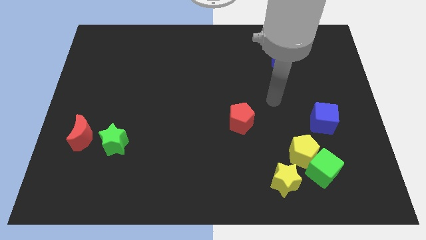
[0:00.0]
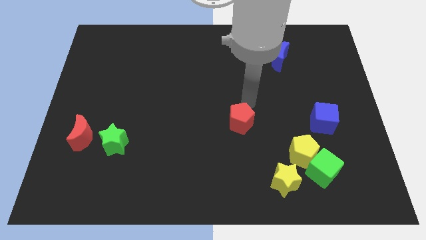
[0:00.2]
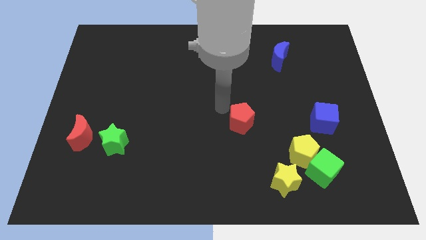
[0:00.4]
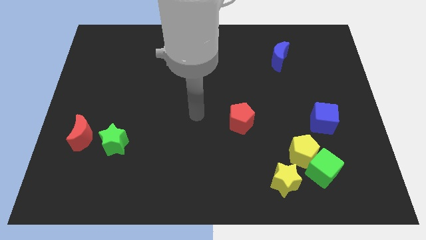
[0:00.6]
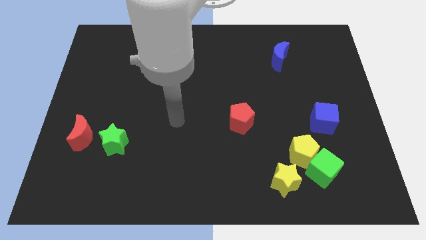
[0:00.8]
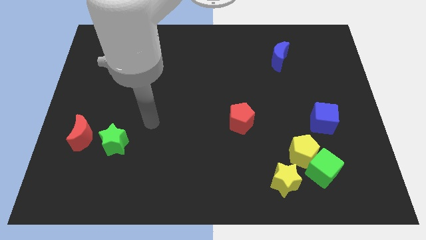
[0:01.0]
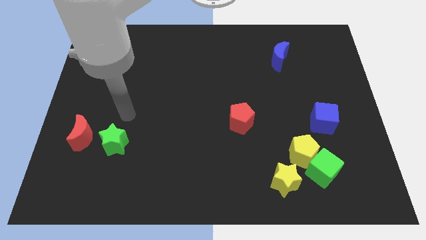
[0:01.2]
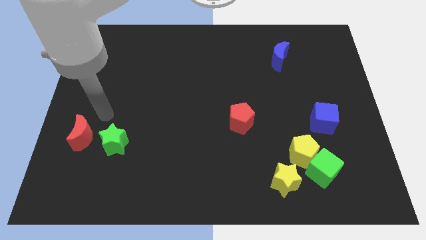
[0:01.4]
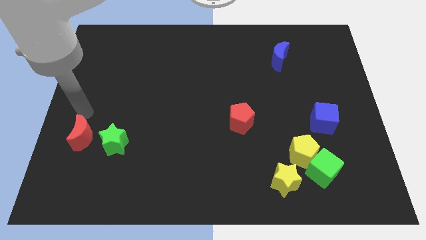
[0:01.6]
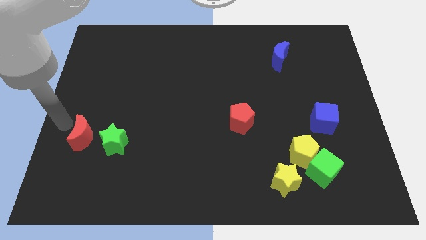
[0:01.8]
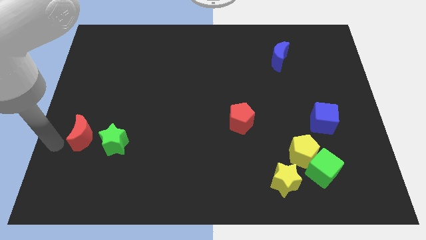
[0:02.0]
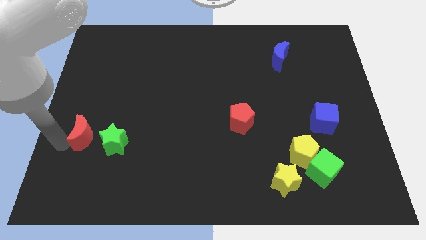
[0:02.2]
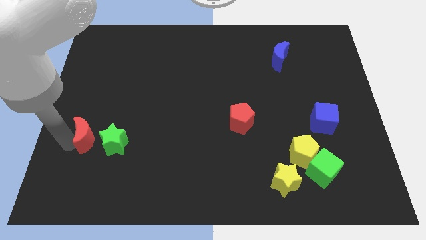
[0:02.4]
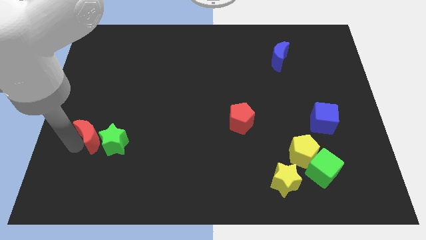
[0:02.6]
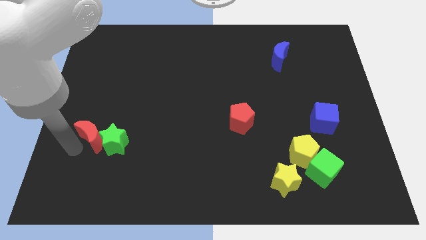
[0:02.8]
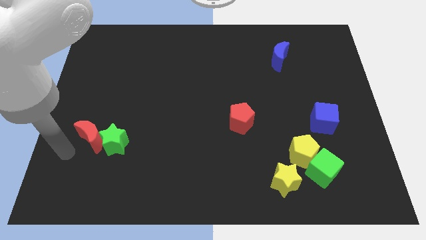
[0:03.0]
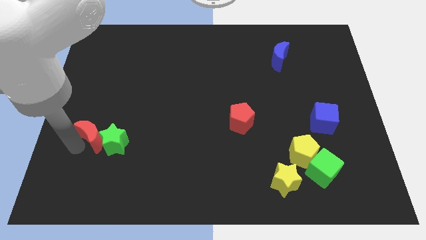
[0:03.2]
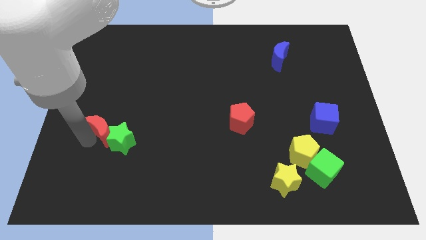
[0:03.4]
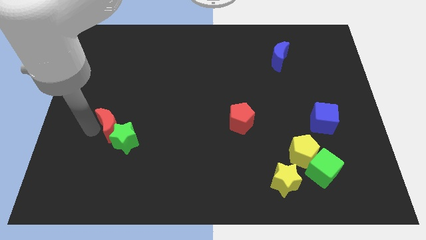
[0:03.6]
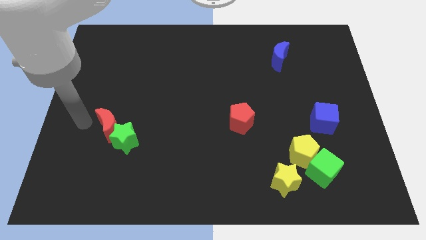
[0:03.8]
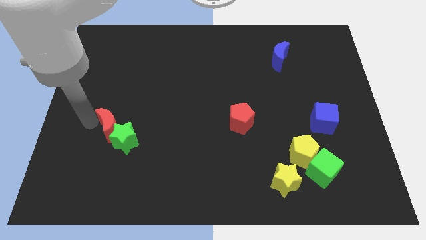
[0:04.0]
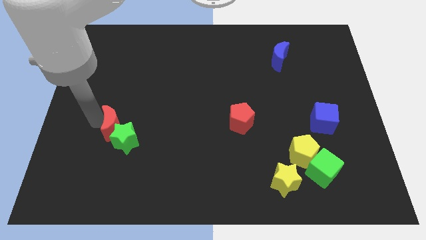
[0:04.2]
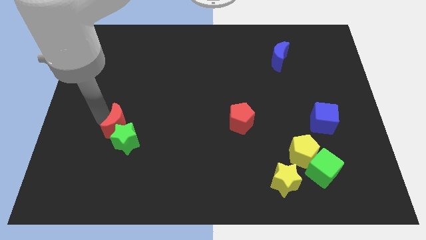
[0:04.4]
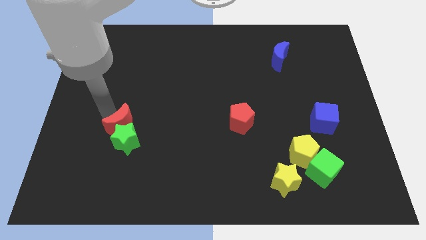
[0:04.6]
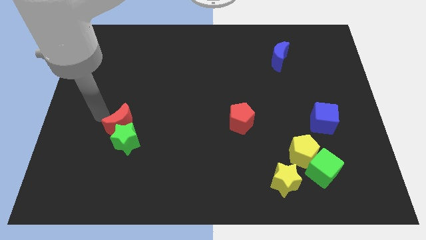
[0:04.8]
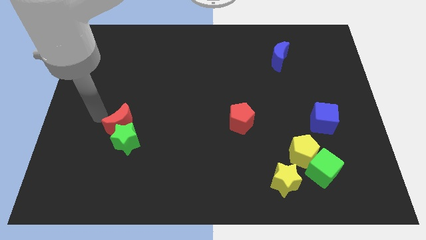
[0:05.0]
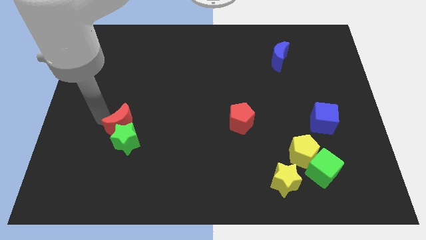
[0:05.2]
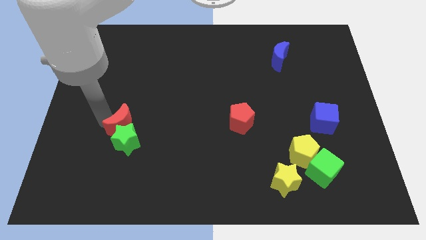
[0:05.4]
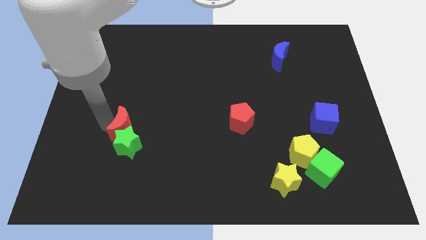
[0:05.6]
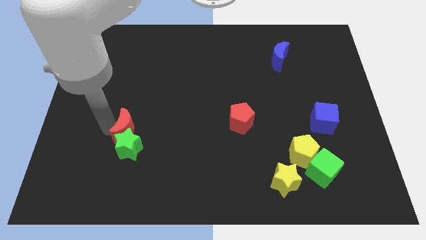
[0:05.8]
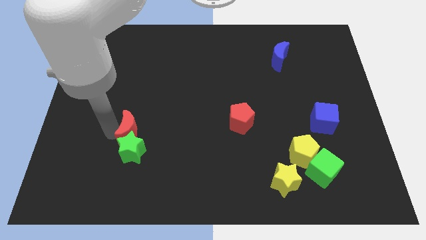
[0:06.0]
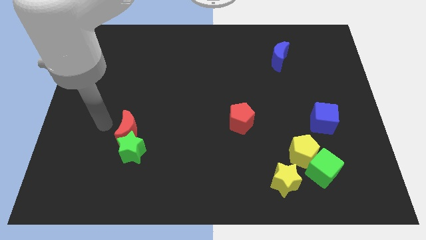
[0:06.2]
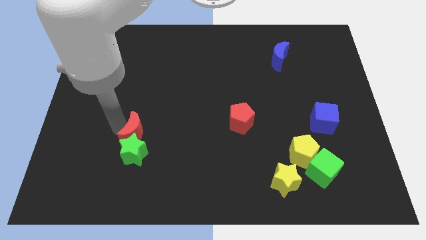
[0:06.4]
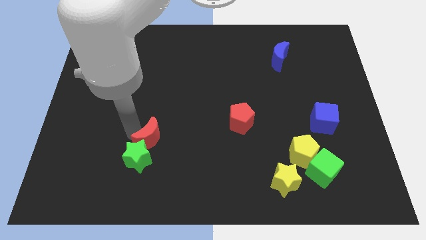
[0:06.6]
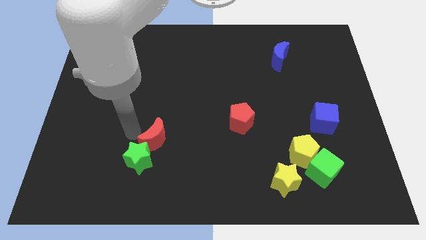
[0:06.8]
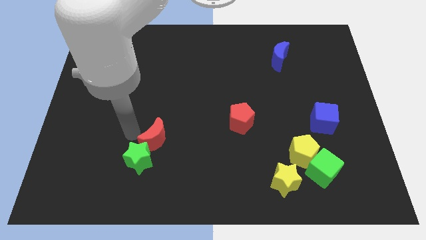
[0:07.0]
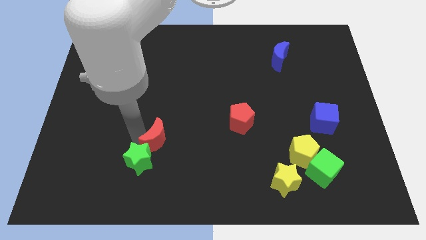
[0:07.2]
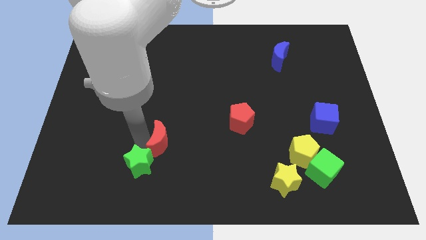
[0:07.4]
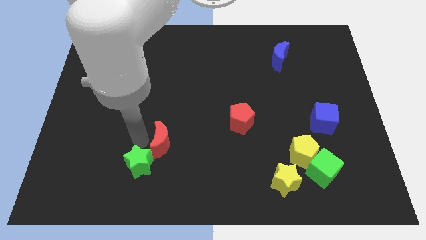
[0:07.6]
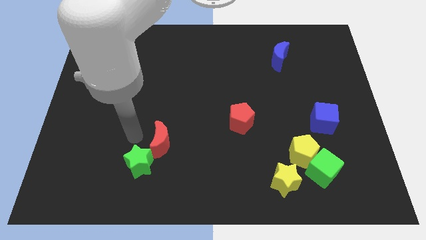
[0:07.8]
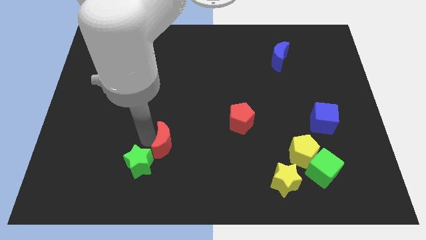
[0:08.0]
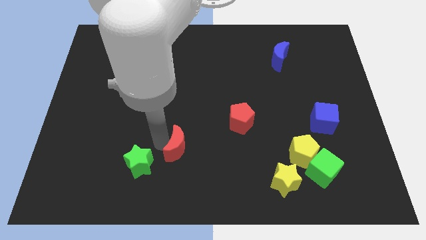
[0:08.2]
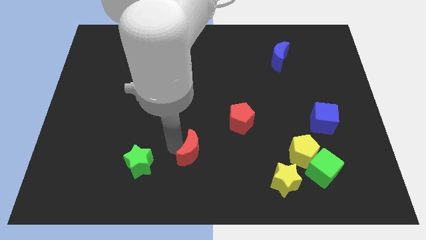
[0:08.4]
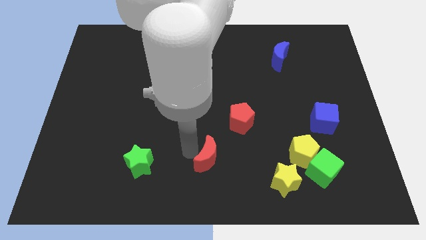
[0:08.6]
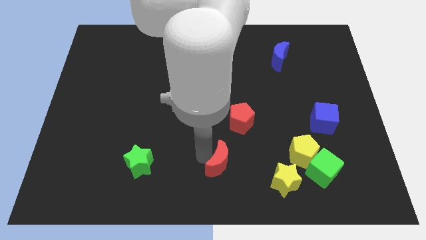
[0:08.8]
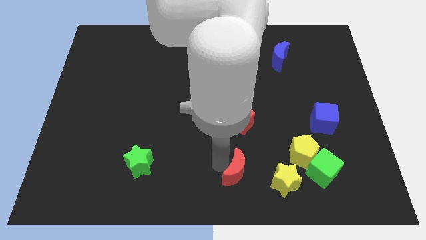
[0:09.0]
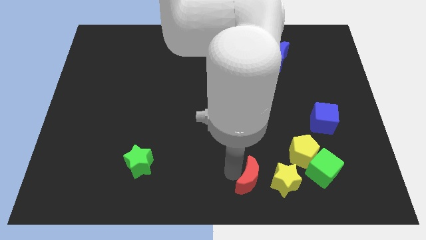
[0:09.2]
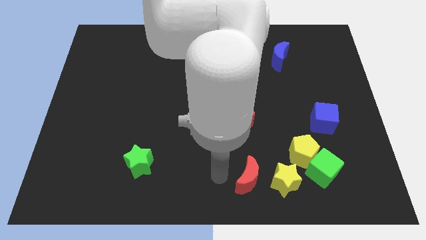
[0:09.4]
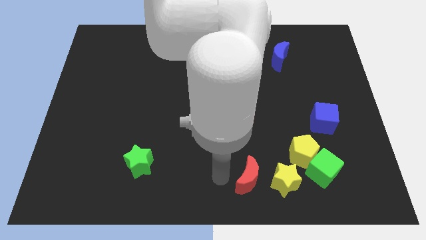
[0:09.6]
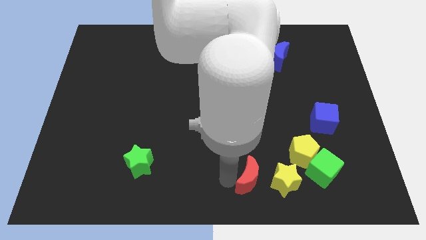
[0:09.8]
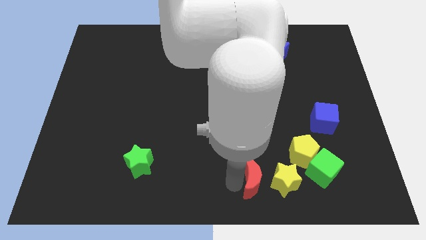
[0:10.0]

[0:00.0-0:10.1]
slide the red moon towards the yellow star

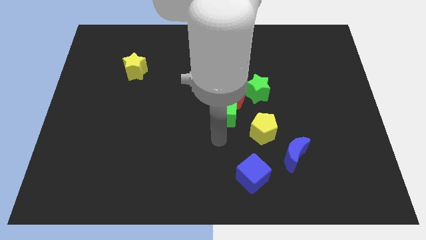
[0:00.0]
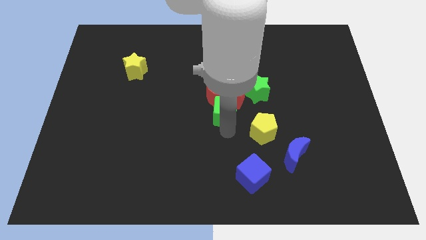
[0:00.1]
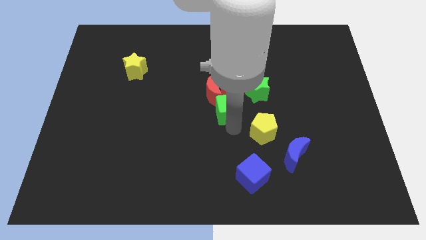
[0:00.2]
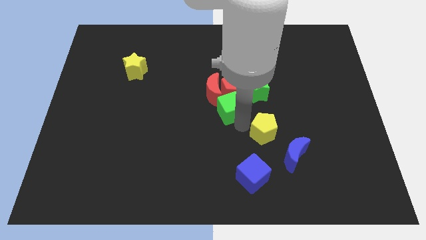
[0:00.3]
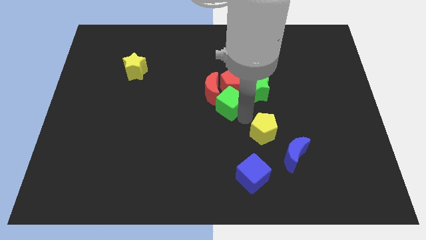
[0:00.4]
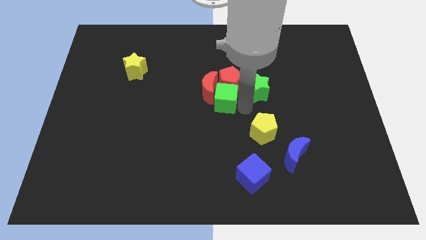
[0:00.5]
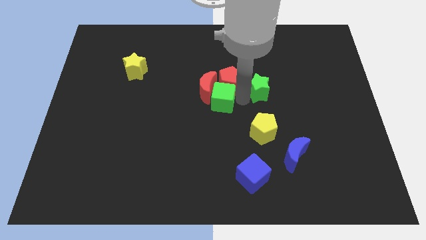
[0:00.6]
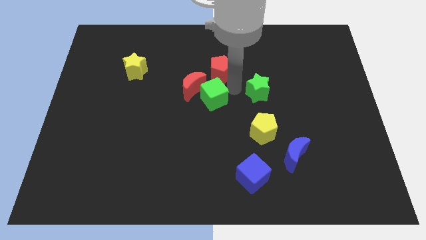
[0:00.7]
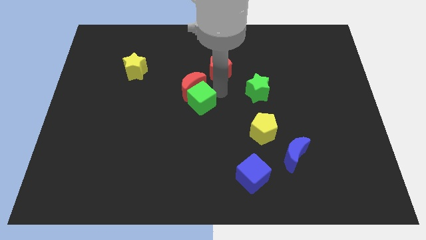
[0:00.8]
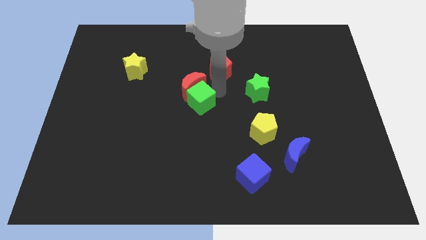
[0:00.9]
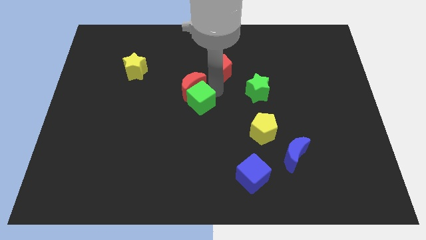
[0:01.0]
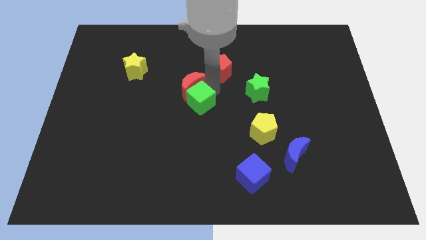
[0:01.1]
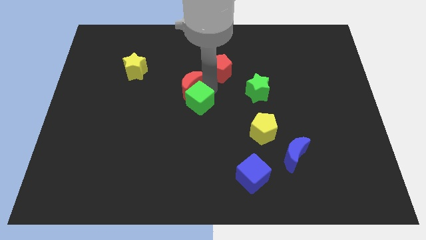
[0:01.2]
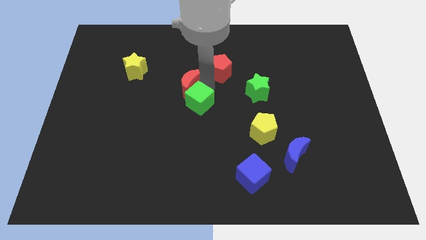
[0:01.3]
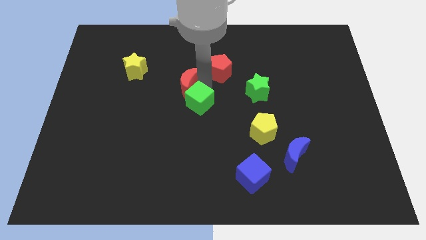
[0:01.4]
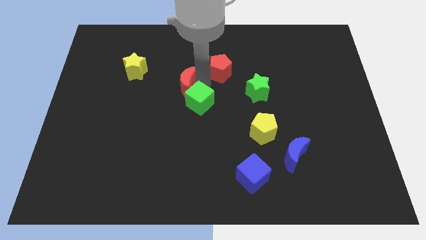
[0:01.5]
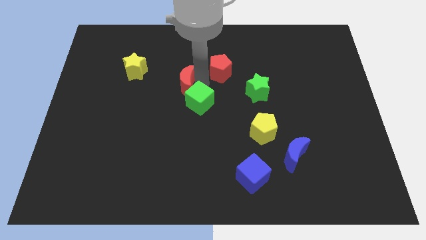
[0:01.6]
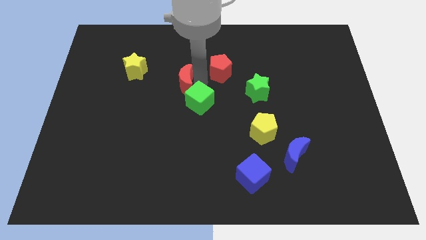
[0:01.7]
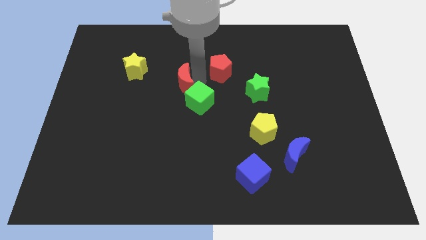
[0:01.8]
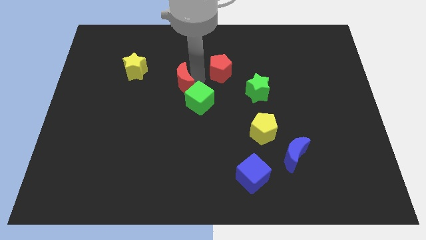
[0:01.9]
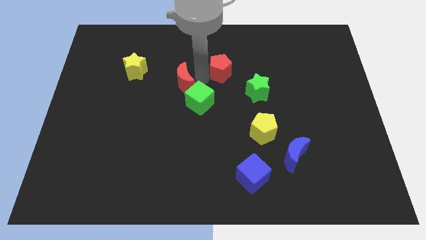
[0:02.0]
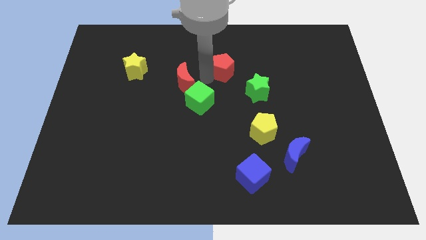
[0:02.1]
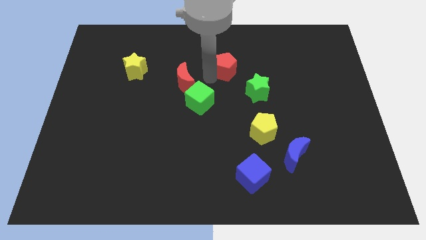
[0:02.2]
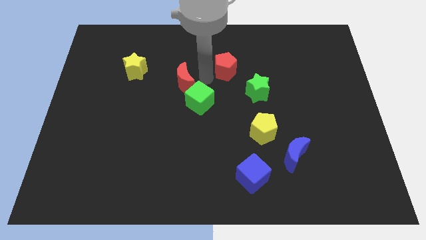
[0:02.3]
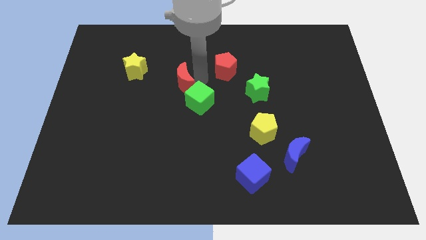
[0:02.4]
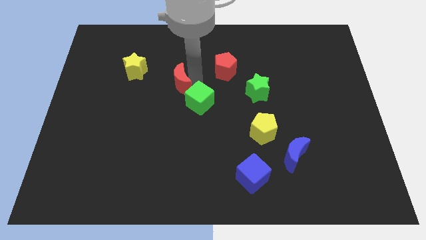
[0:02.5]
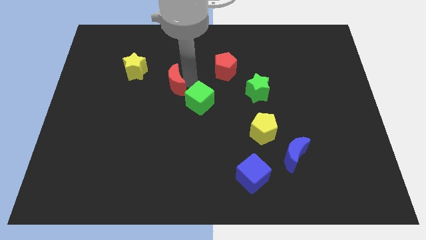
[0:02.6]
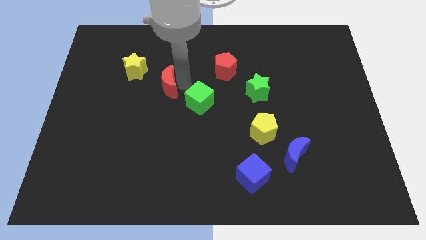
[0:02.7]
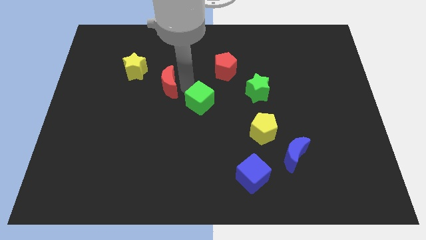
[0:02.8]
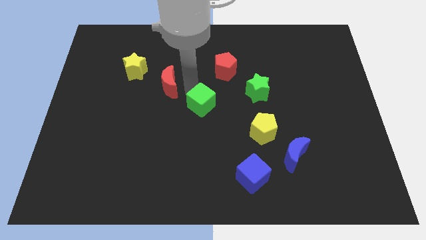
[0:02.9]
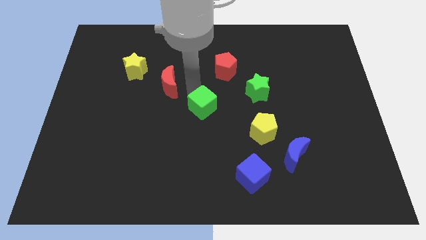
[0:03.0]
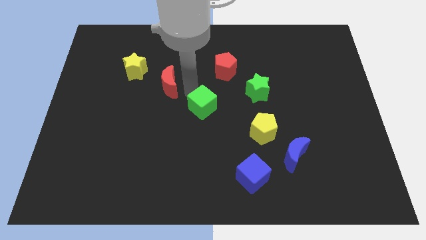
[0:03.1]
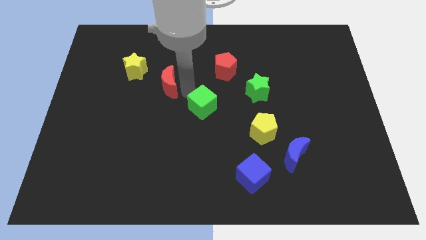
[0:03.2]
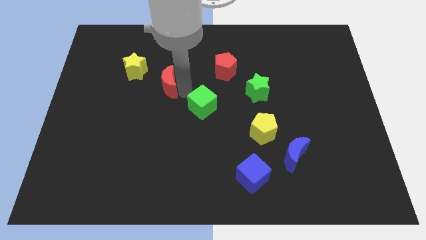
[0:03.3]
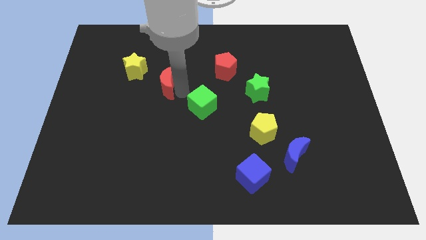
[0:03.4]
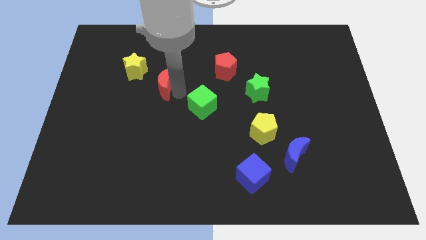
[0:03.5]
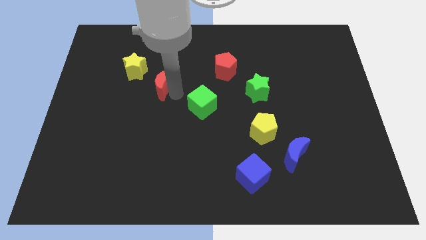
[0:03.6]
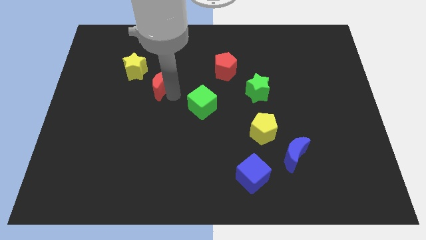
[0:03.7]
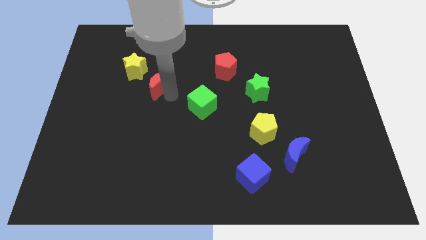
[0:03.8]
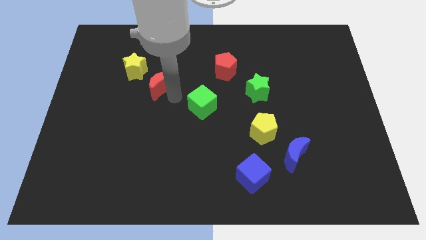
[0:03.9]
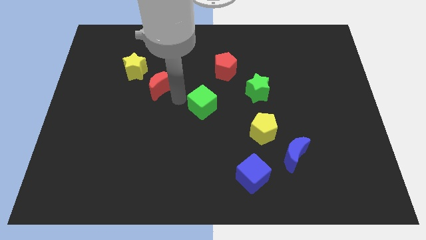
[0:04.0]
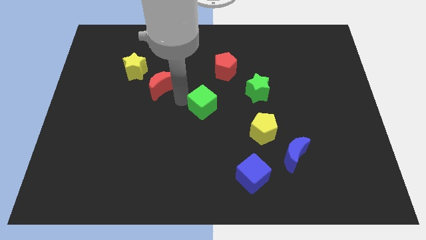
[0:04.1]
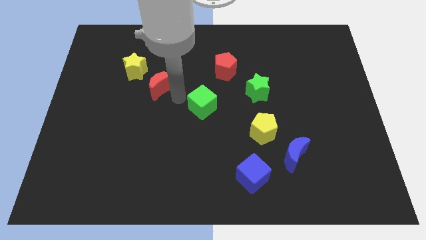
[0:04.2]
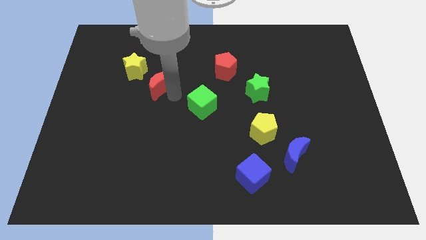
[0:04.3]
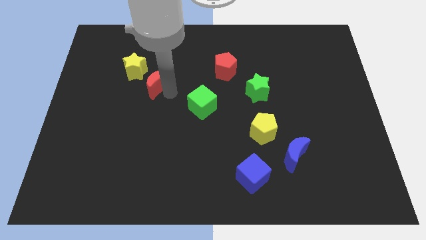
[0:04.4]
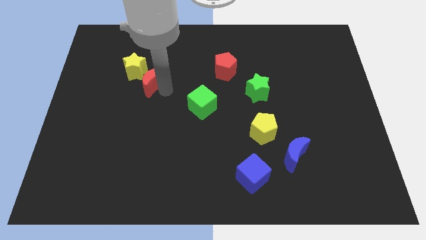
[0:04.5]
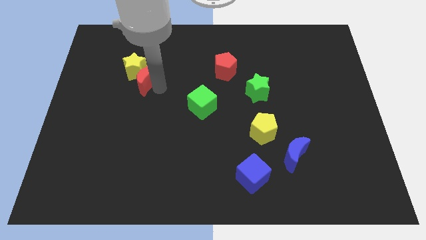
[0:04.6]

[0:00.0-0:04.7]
push the red moon towards the yellow star
